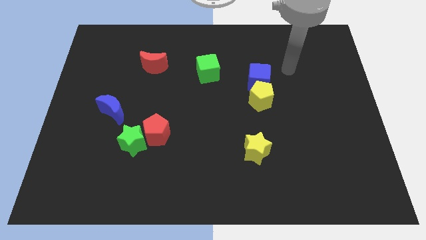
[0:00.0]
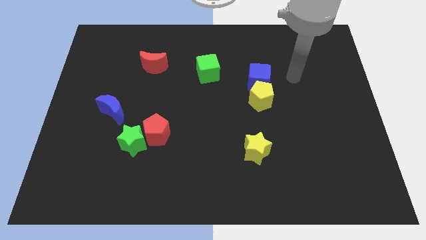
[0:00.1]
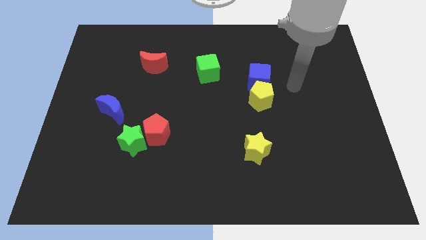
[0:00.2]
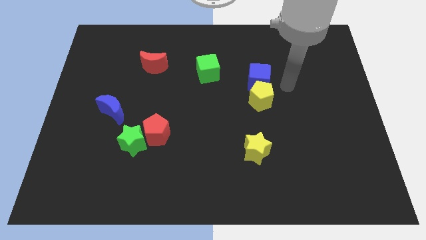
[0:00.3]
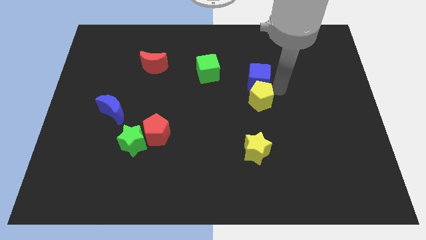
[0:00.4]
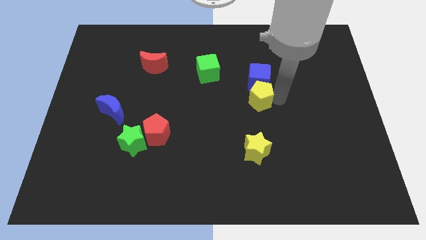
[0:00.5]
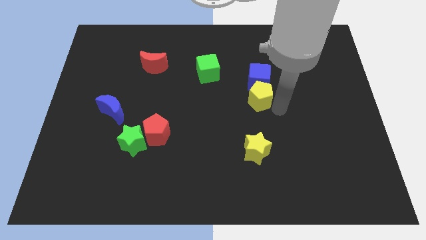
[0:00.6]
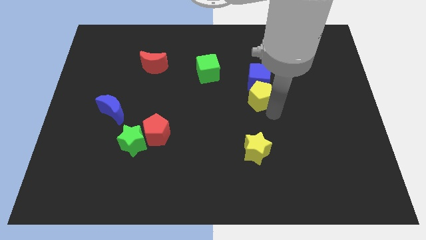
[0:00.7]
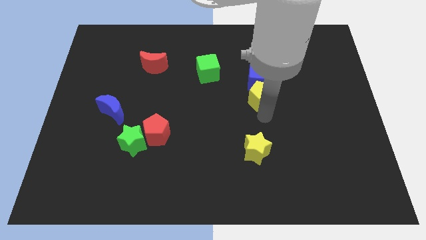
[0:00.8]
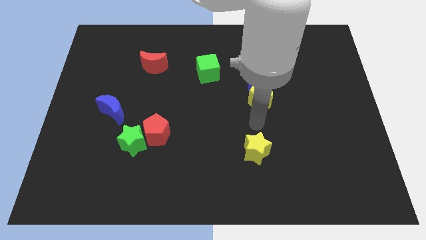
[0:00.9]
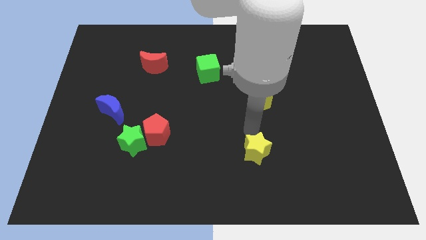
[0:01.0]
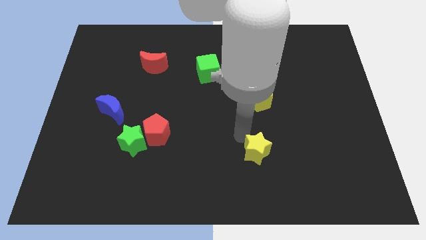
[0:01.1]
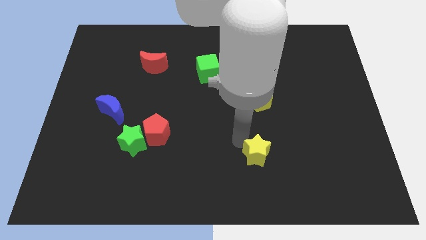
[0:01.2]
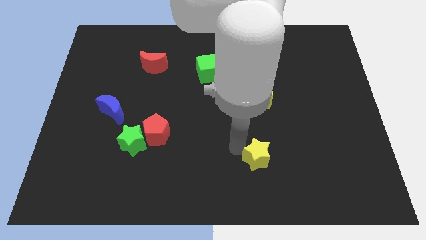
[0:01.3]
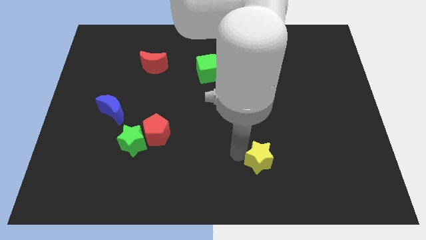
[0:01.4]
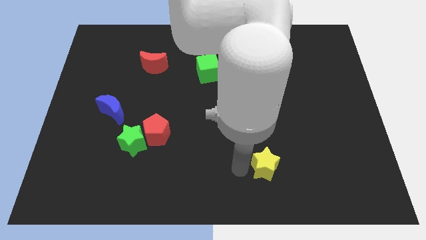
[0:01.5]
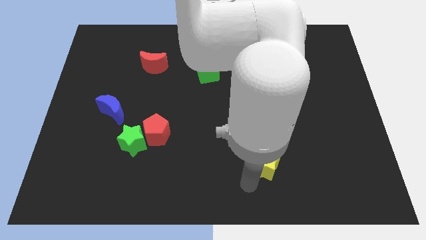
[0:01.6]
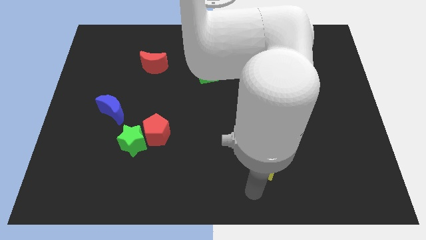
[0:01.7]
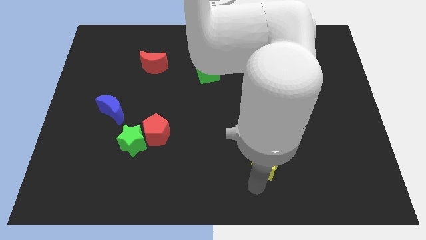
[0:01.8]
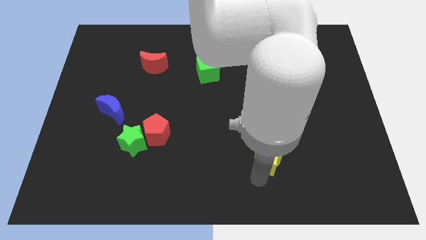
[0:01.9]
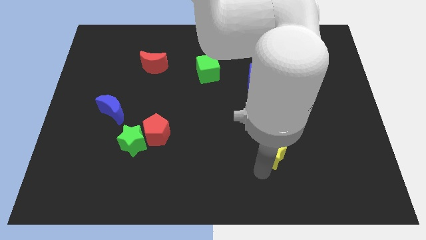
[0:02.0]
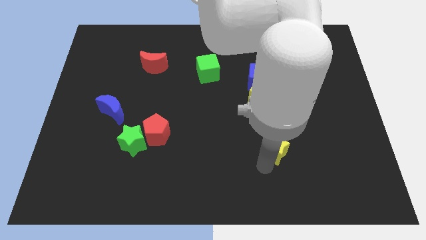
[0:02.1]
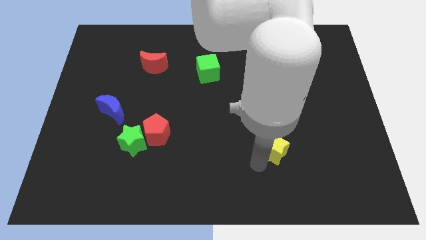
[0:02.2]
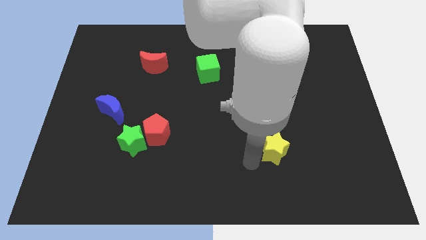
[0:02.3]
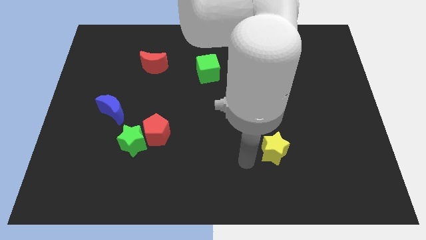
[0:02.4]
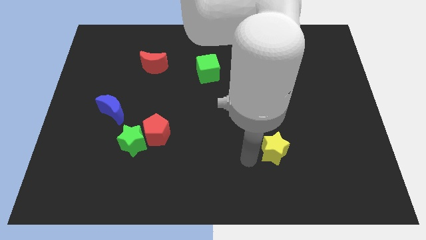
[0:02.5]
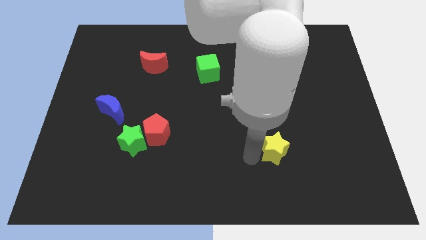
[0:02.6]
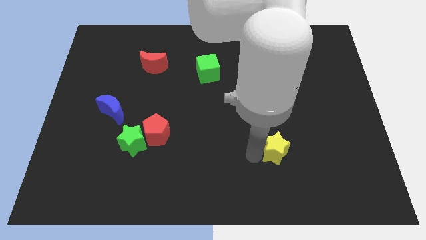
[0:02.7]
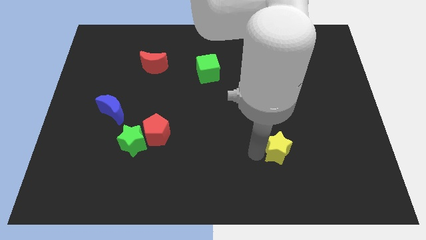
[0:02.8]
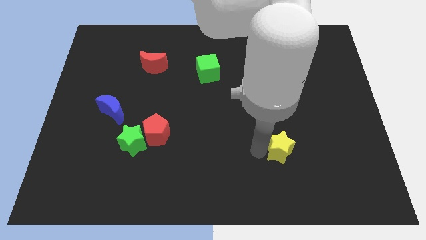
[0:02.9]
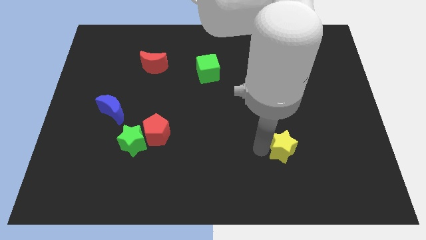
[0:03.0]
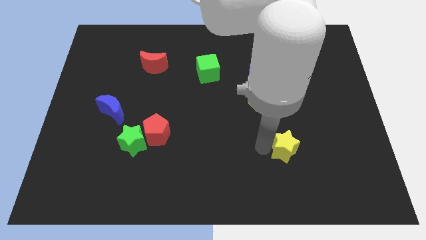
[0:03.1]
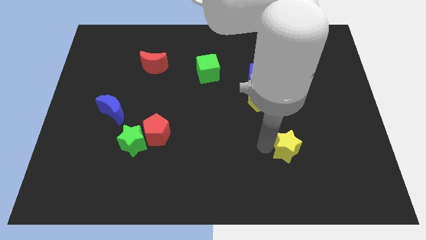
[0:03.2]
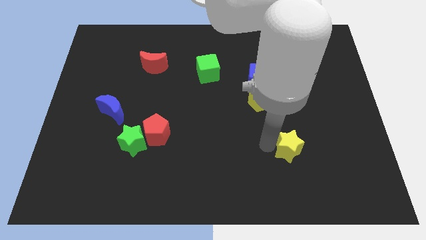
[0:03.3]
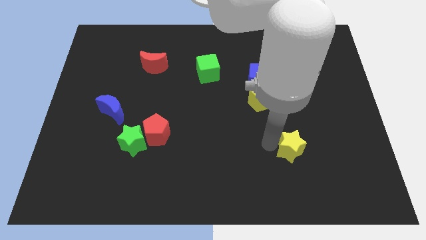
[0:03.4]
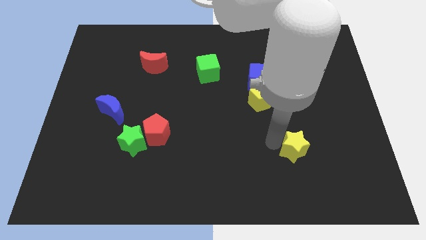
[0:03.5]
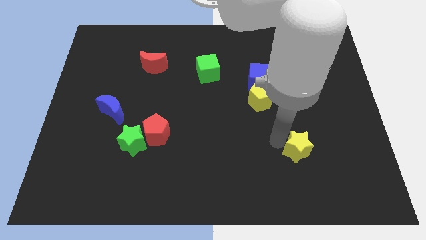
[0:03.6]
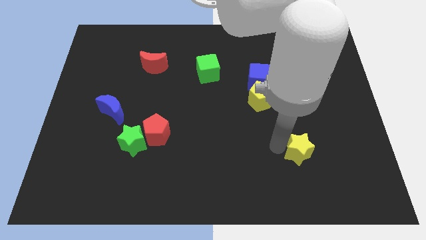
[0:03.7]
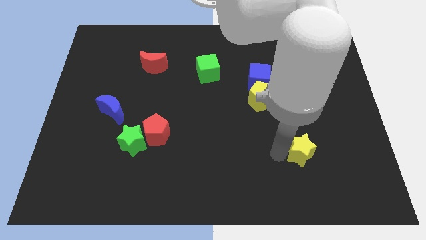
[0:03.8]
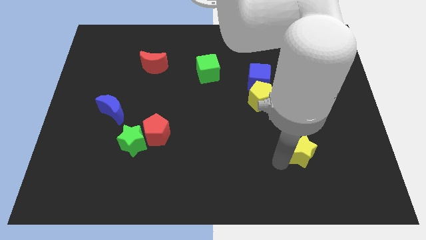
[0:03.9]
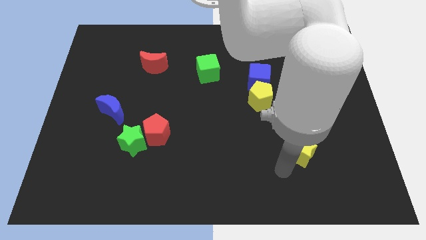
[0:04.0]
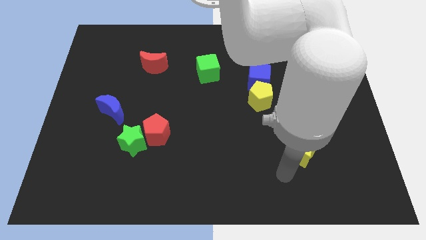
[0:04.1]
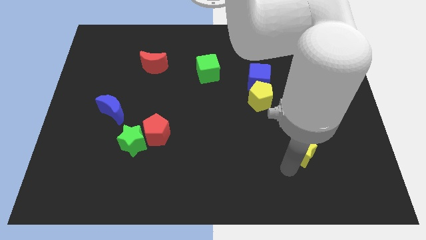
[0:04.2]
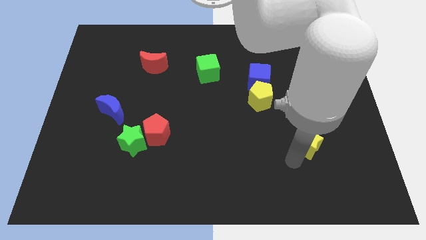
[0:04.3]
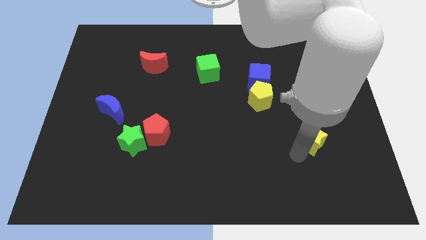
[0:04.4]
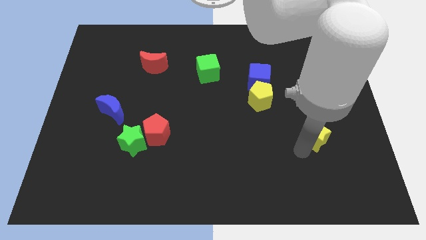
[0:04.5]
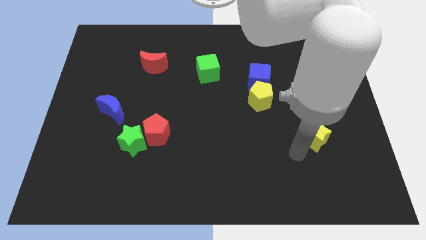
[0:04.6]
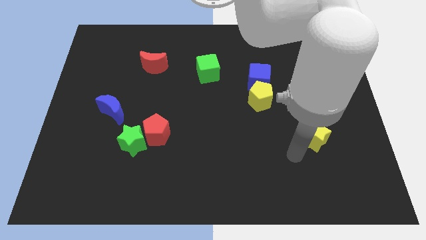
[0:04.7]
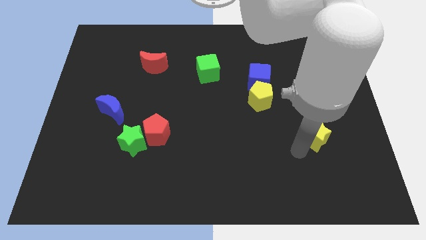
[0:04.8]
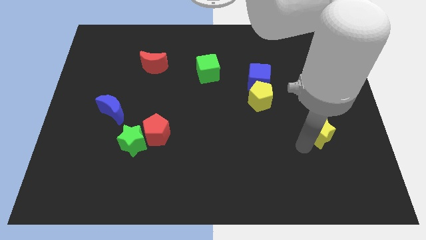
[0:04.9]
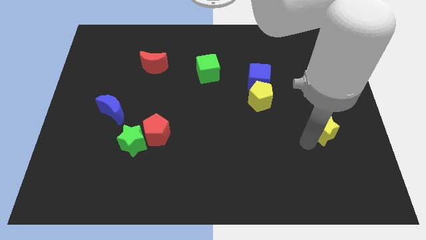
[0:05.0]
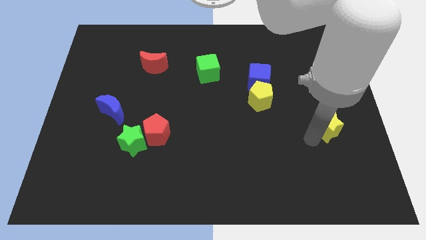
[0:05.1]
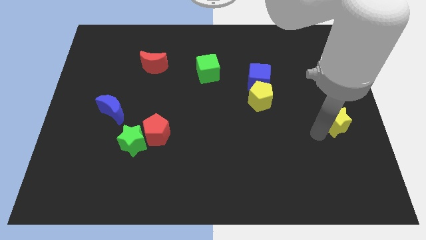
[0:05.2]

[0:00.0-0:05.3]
move the yellow star to the center right

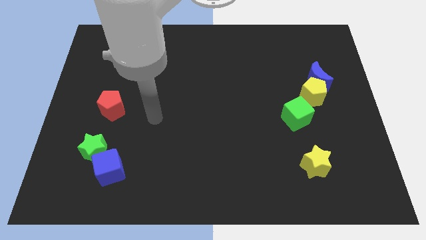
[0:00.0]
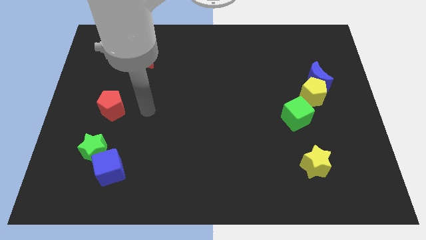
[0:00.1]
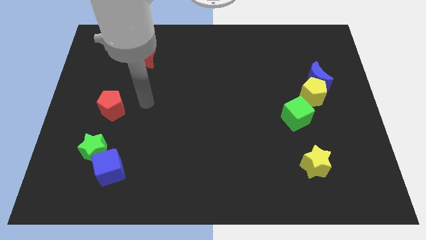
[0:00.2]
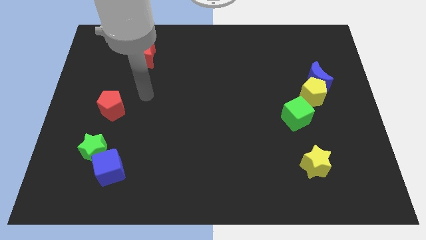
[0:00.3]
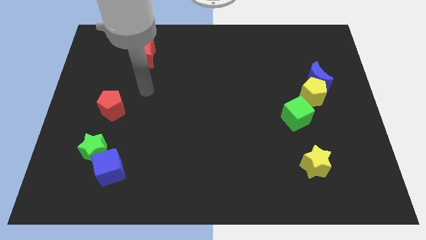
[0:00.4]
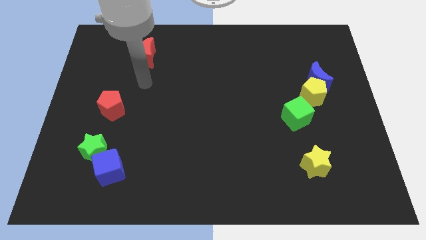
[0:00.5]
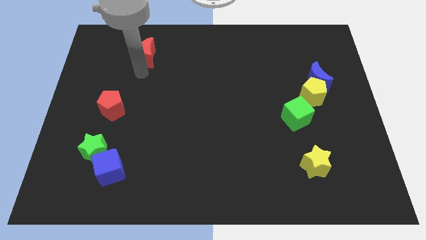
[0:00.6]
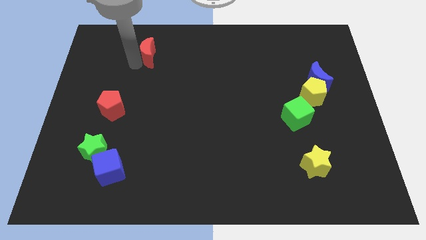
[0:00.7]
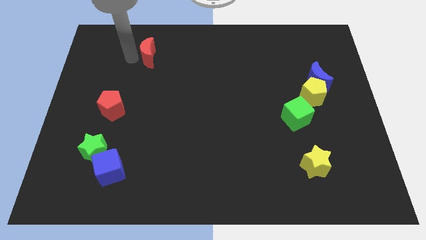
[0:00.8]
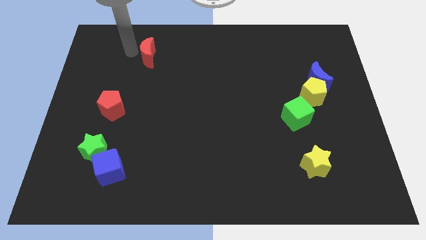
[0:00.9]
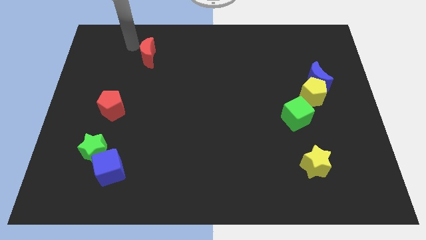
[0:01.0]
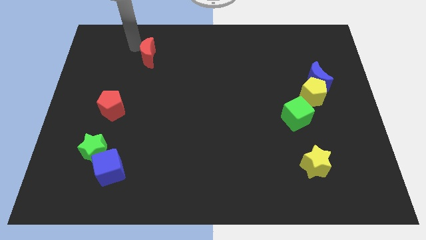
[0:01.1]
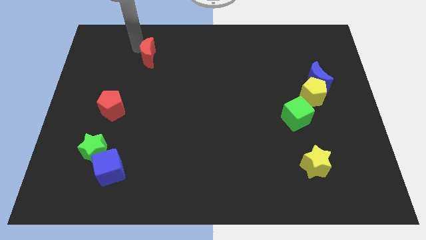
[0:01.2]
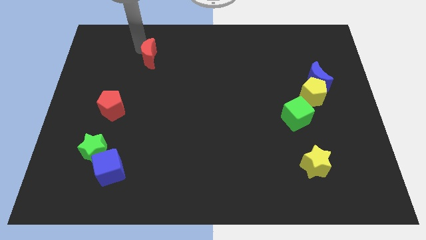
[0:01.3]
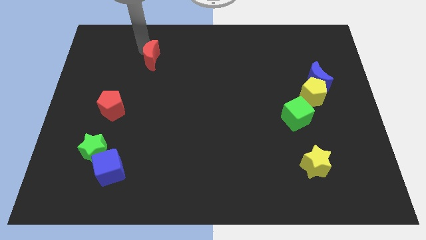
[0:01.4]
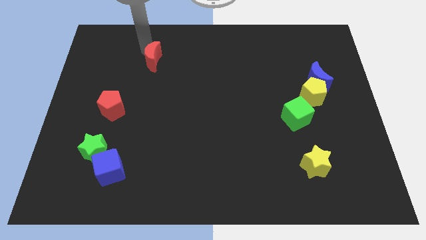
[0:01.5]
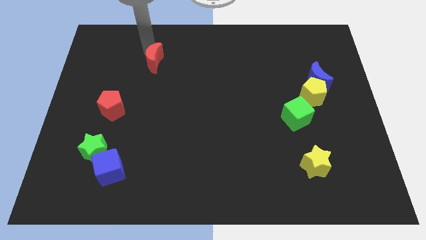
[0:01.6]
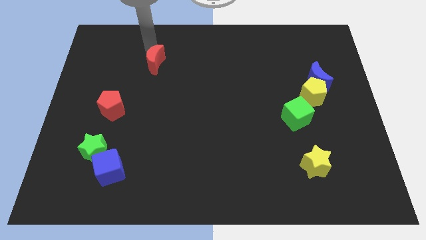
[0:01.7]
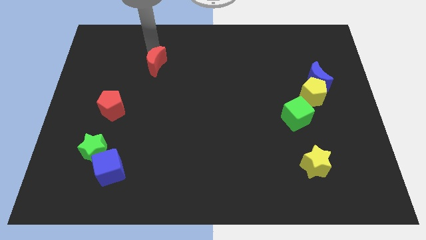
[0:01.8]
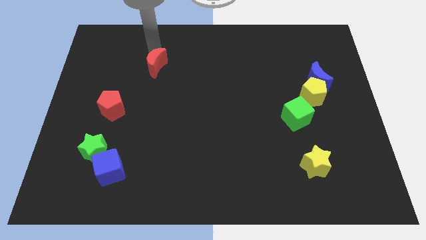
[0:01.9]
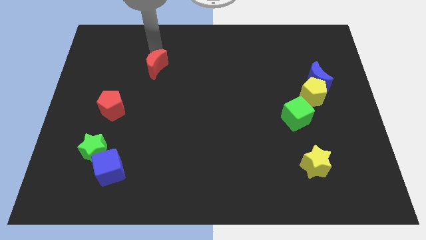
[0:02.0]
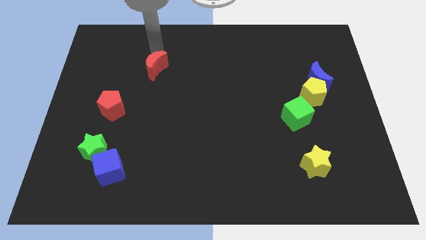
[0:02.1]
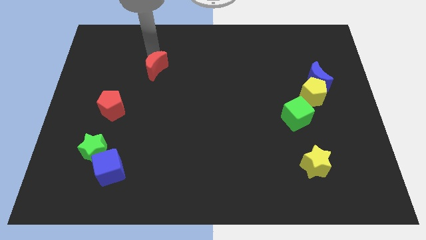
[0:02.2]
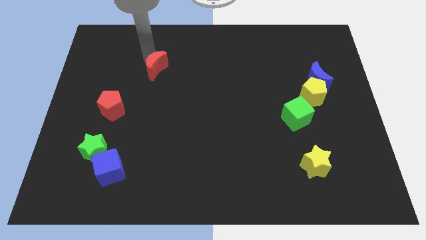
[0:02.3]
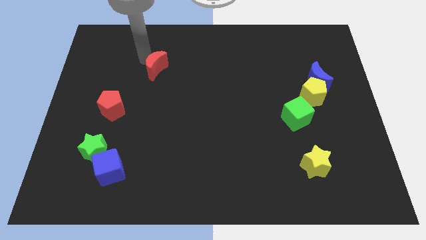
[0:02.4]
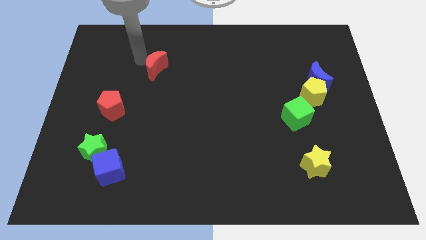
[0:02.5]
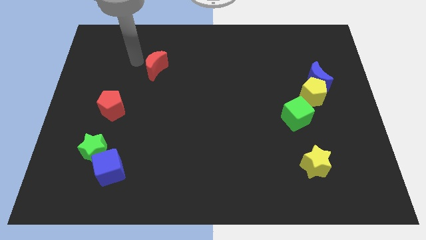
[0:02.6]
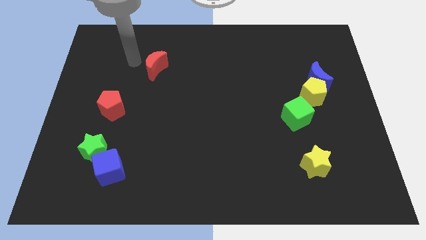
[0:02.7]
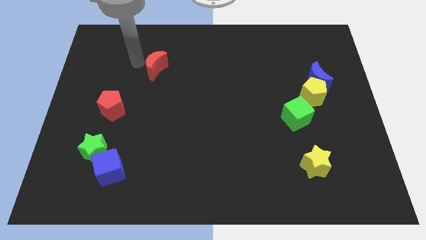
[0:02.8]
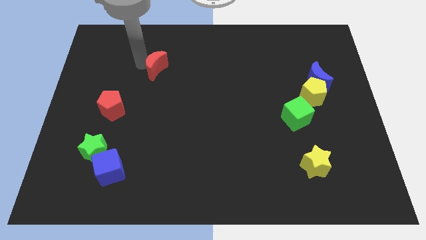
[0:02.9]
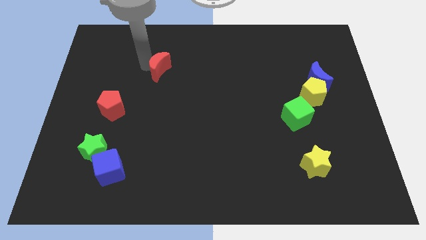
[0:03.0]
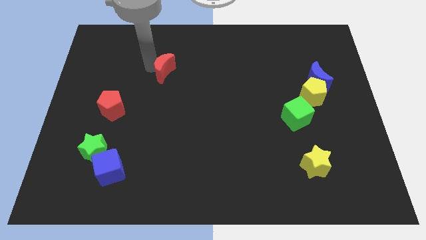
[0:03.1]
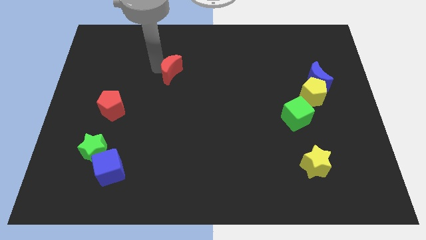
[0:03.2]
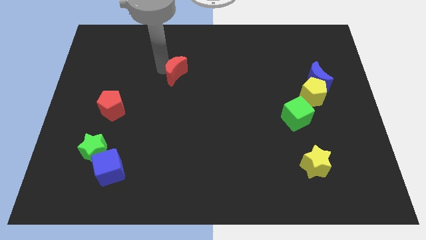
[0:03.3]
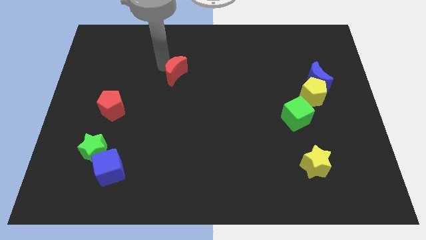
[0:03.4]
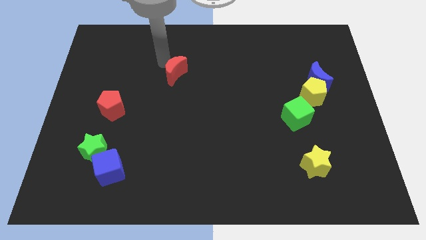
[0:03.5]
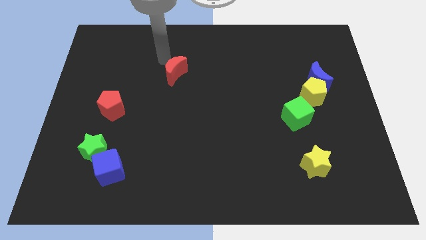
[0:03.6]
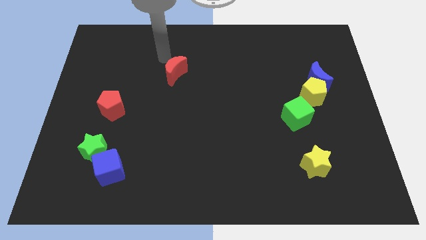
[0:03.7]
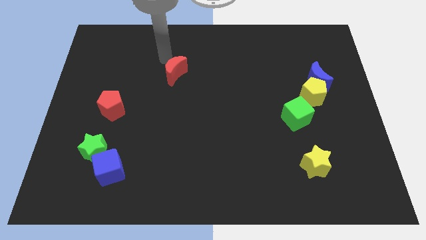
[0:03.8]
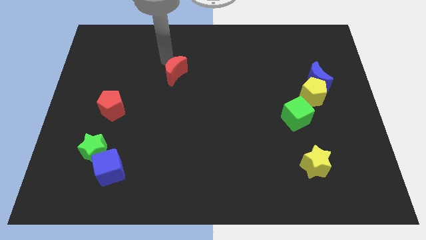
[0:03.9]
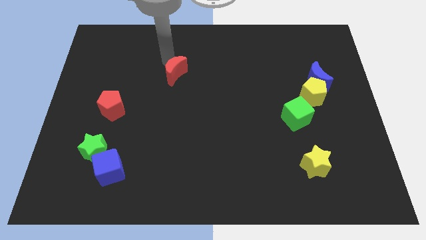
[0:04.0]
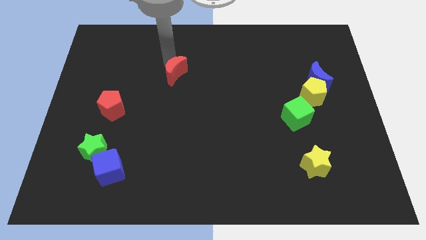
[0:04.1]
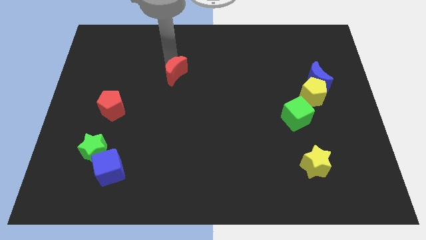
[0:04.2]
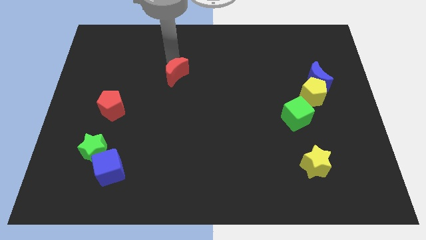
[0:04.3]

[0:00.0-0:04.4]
slide the red moon to the center
